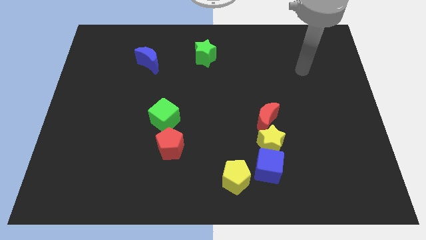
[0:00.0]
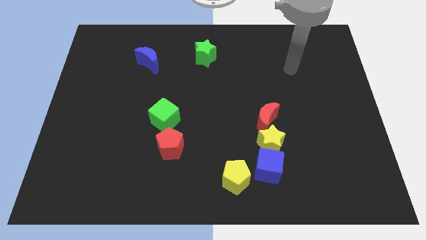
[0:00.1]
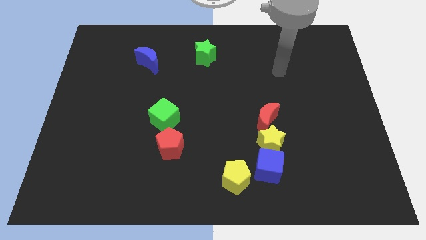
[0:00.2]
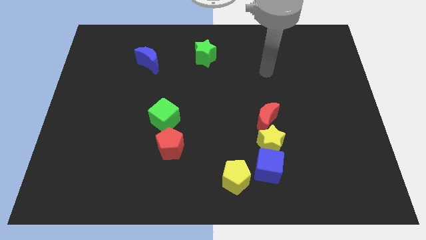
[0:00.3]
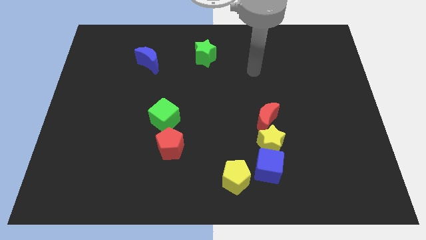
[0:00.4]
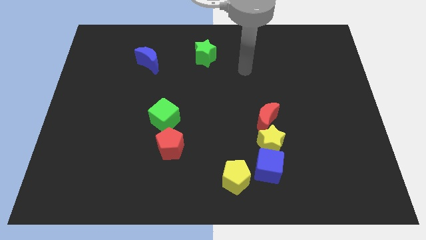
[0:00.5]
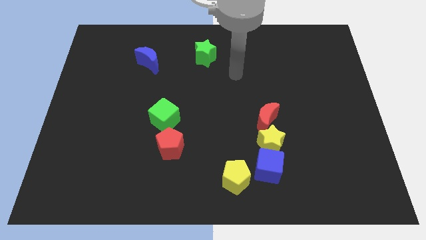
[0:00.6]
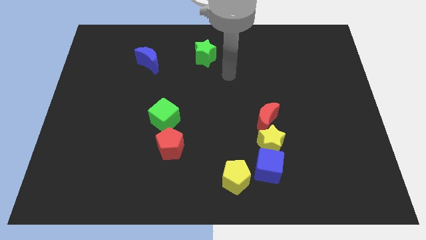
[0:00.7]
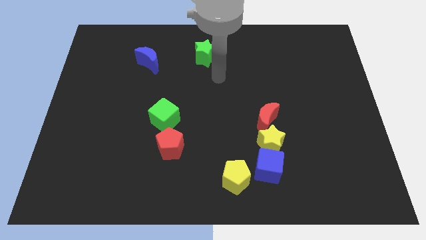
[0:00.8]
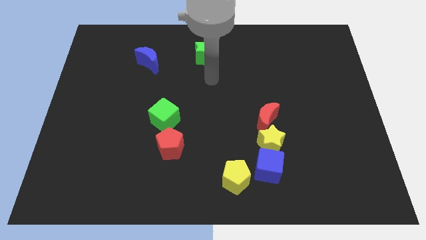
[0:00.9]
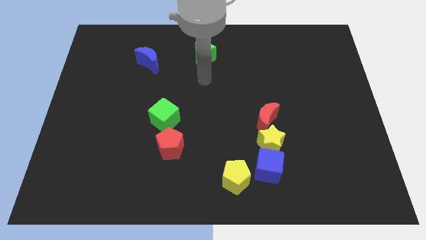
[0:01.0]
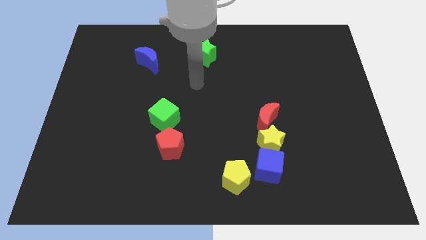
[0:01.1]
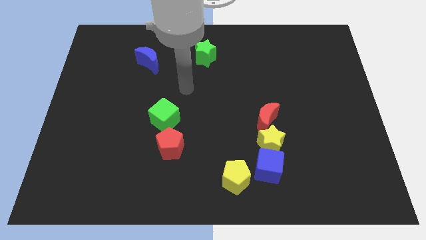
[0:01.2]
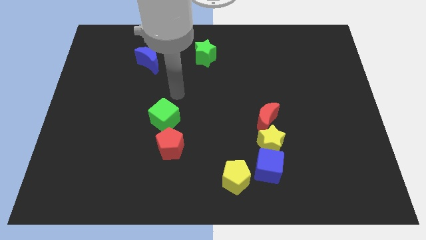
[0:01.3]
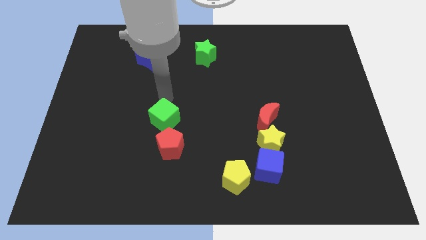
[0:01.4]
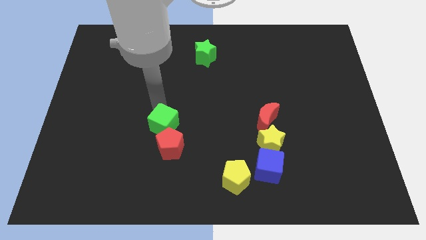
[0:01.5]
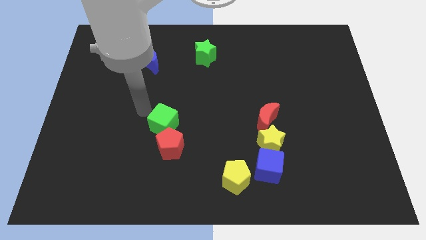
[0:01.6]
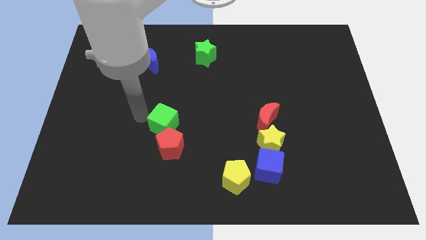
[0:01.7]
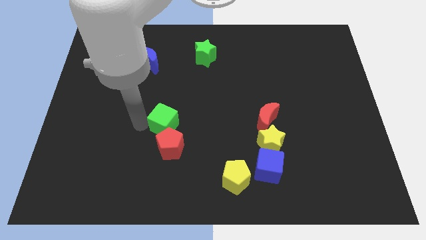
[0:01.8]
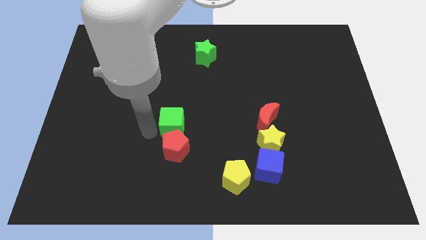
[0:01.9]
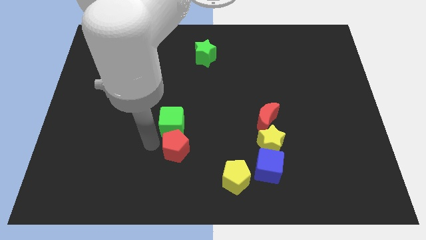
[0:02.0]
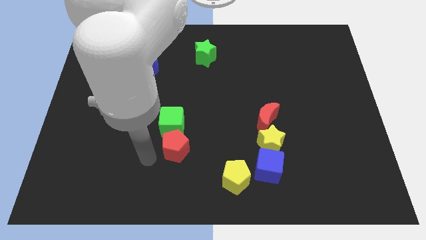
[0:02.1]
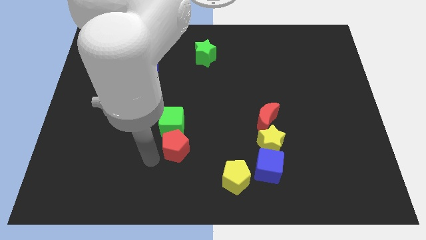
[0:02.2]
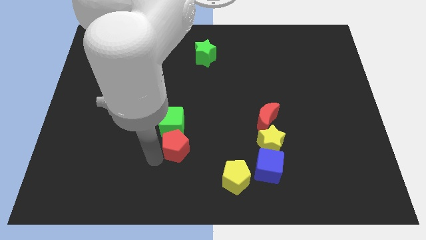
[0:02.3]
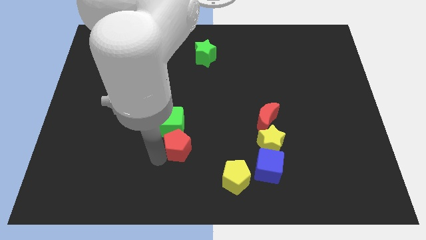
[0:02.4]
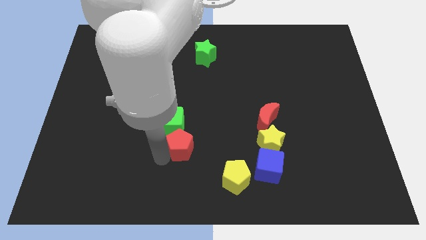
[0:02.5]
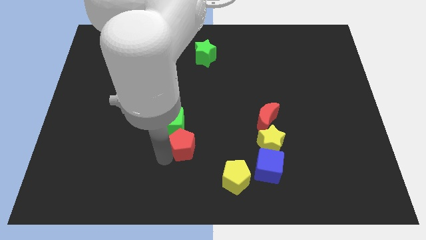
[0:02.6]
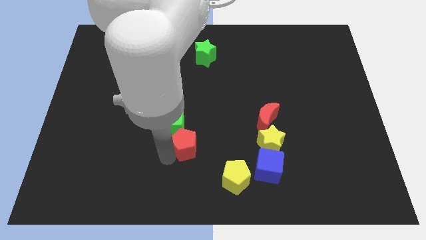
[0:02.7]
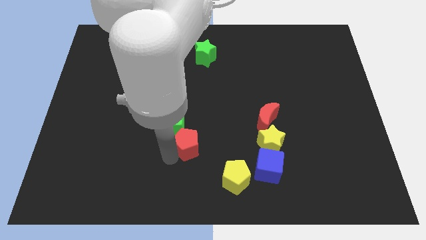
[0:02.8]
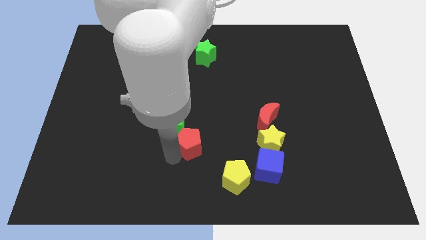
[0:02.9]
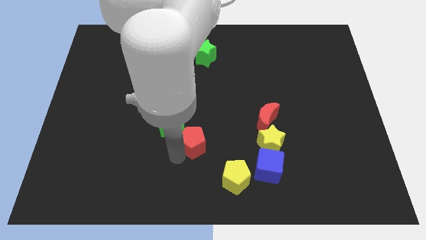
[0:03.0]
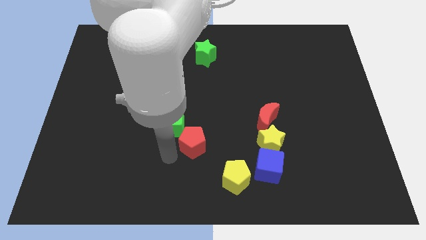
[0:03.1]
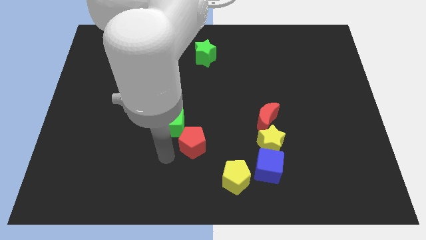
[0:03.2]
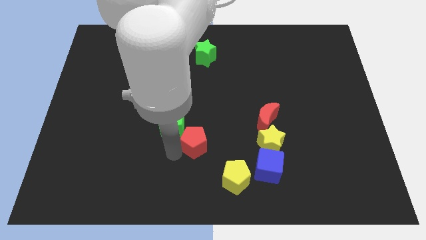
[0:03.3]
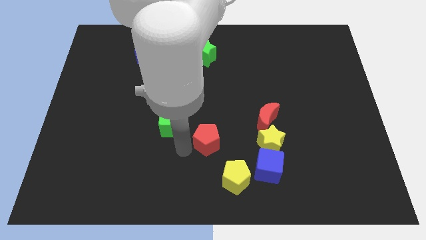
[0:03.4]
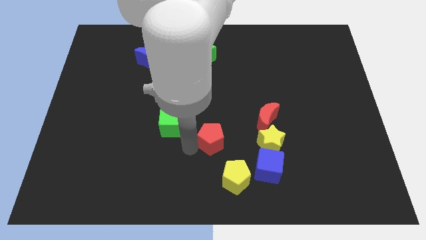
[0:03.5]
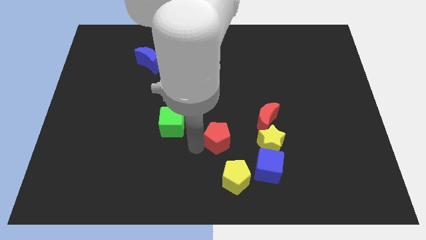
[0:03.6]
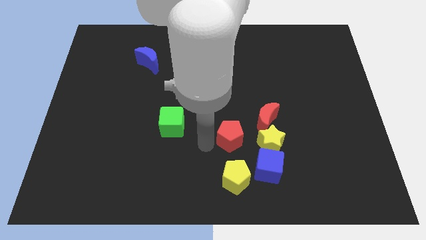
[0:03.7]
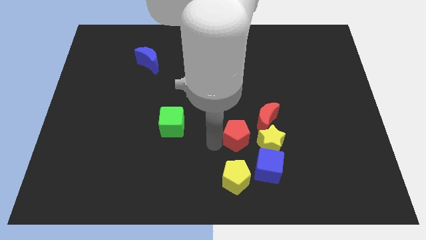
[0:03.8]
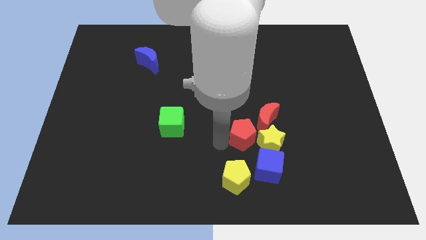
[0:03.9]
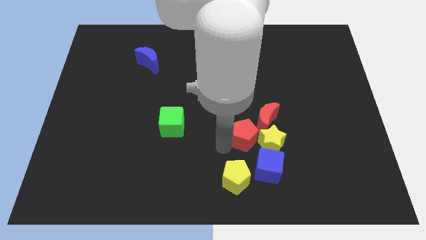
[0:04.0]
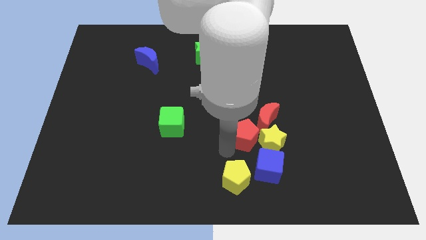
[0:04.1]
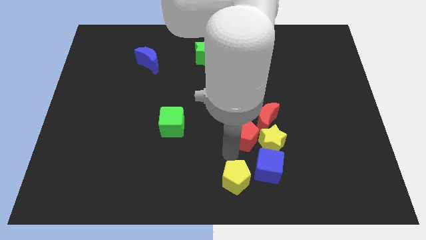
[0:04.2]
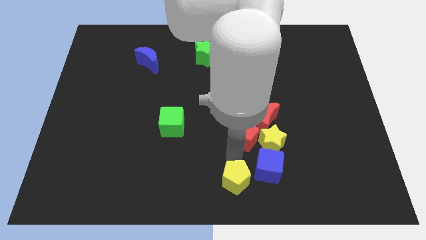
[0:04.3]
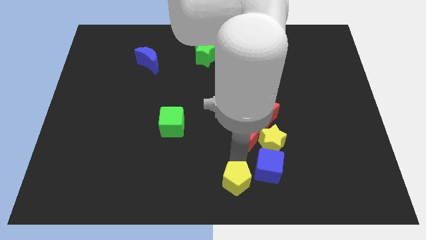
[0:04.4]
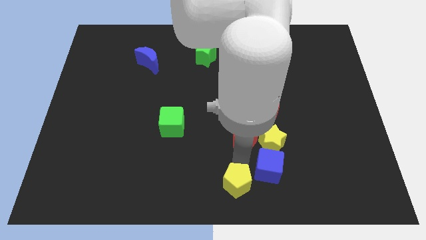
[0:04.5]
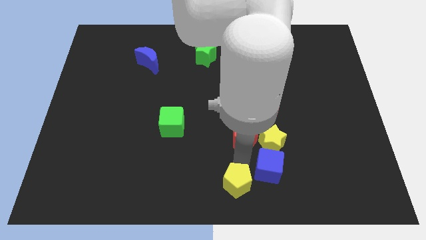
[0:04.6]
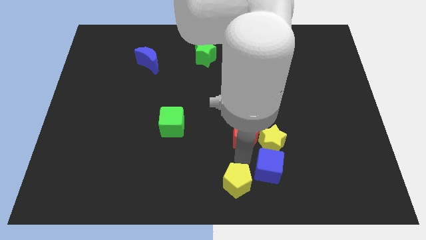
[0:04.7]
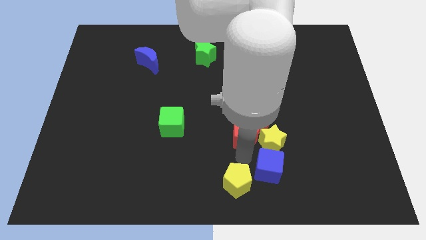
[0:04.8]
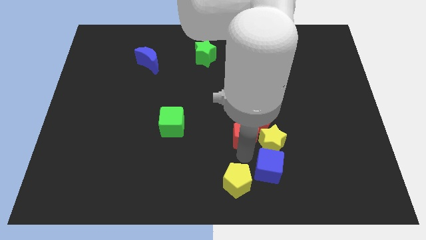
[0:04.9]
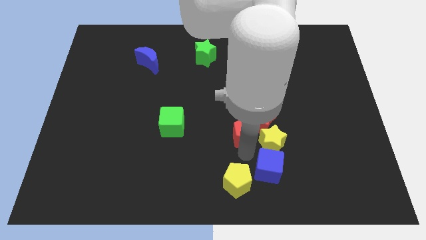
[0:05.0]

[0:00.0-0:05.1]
slide the red pentagon close to the red moon

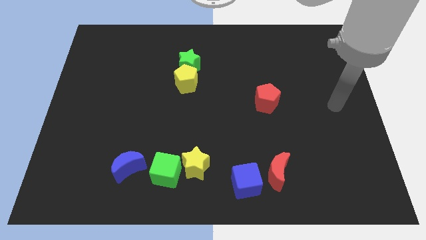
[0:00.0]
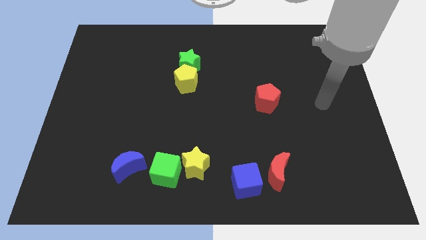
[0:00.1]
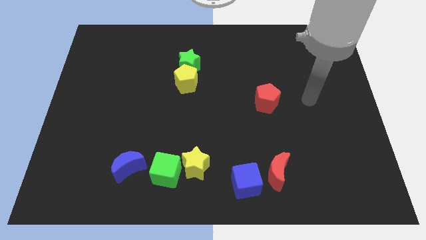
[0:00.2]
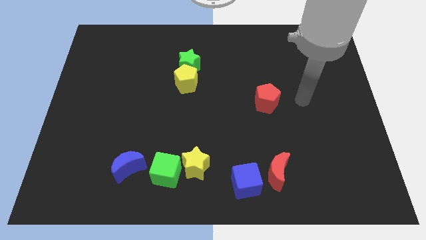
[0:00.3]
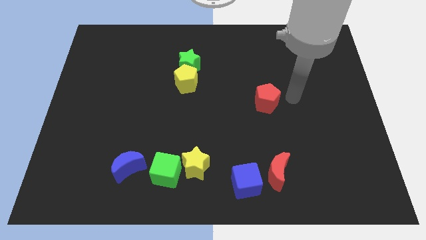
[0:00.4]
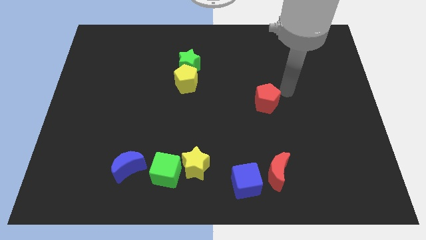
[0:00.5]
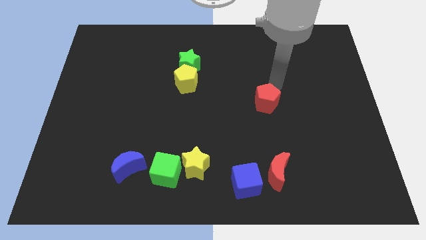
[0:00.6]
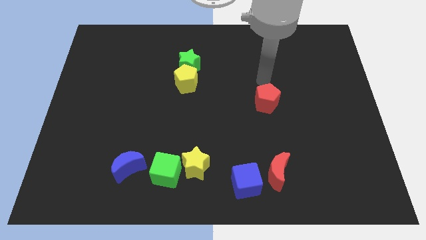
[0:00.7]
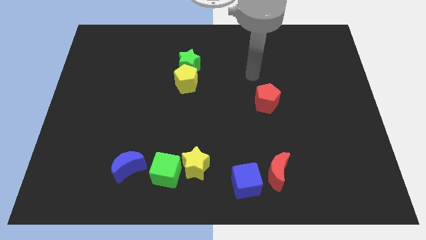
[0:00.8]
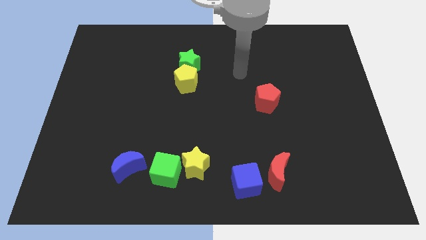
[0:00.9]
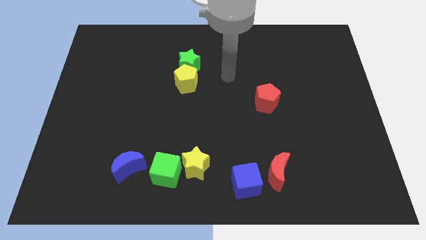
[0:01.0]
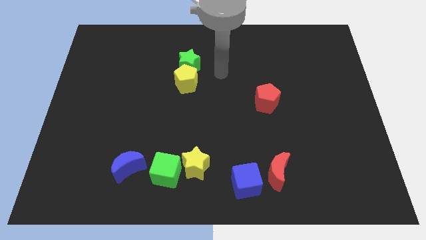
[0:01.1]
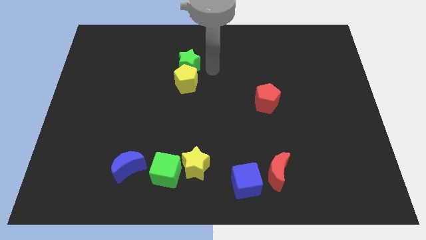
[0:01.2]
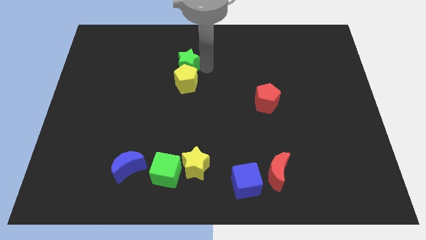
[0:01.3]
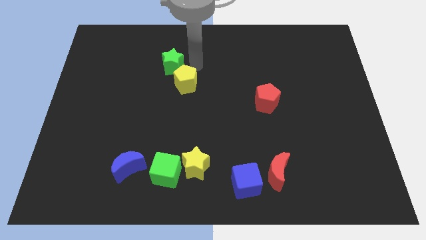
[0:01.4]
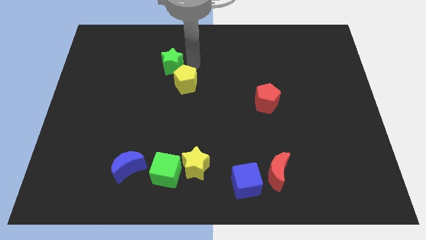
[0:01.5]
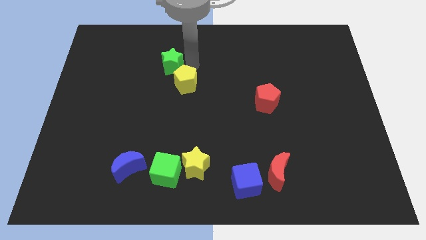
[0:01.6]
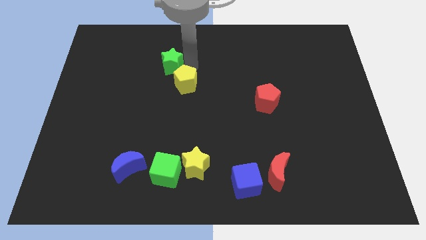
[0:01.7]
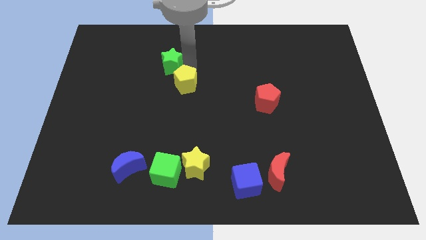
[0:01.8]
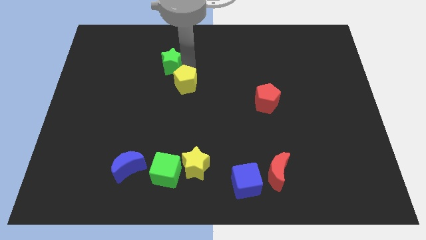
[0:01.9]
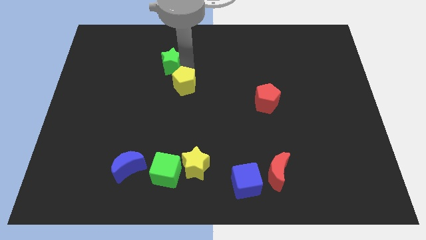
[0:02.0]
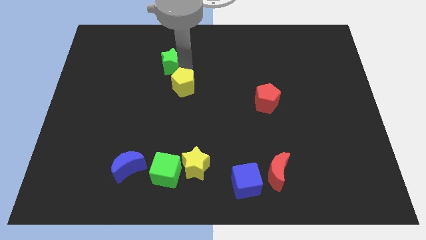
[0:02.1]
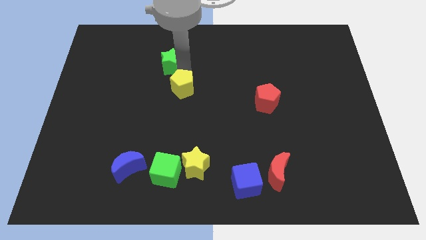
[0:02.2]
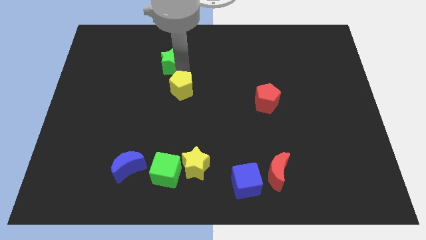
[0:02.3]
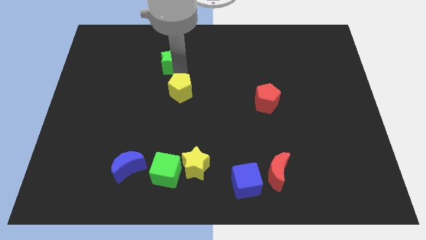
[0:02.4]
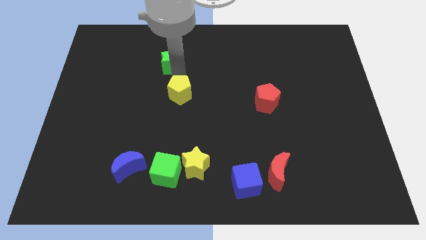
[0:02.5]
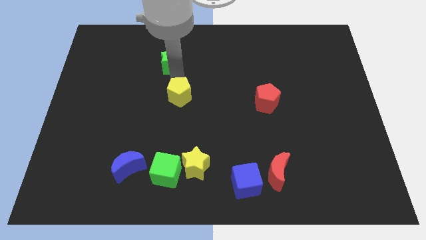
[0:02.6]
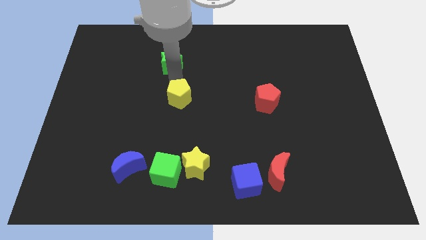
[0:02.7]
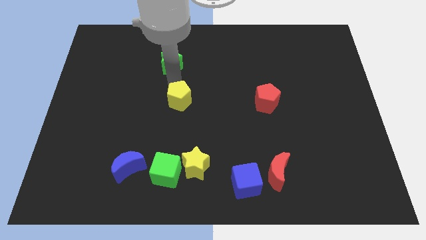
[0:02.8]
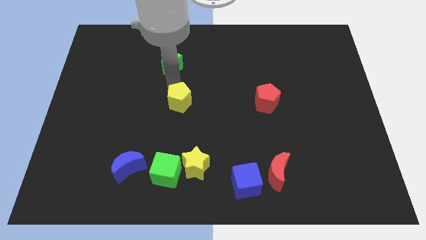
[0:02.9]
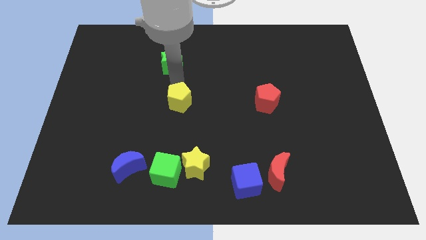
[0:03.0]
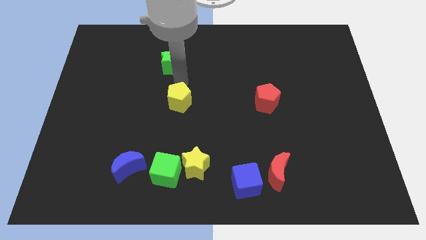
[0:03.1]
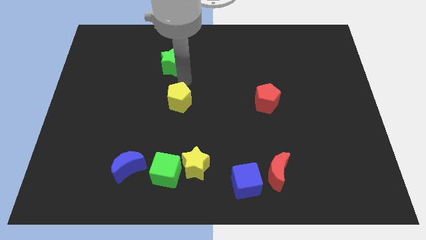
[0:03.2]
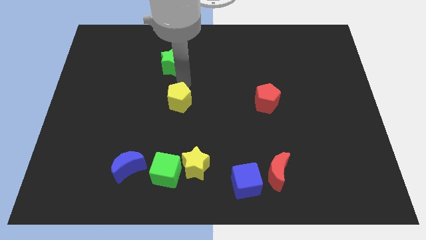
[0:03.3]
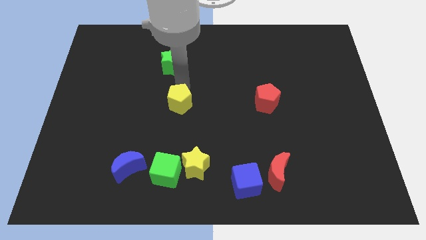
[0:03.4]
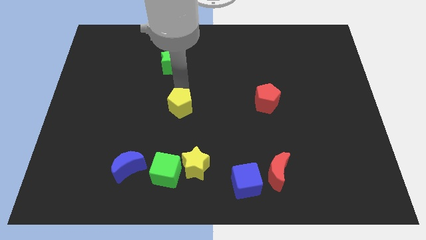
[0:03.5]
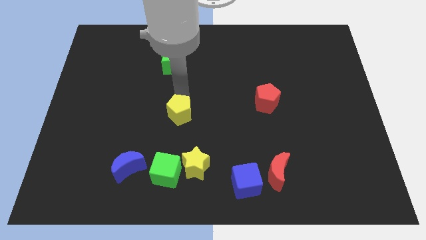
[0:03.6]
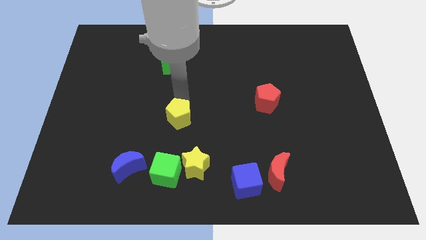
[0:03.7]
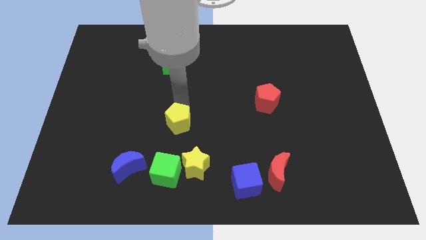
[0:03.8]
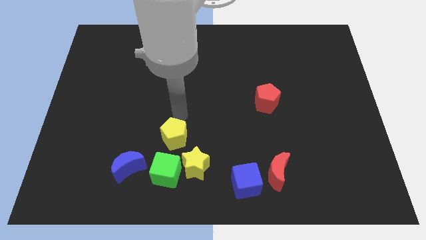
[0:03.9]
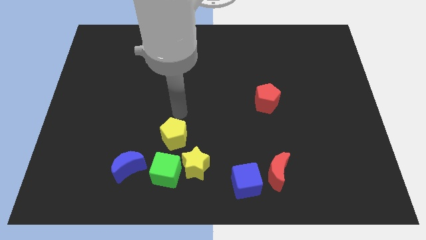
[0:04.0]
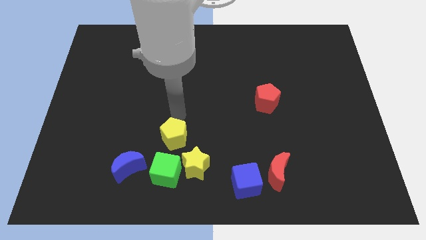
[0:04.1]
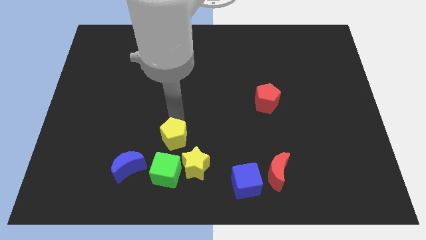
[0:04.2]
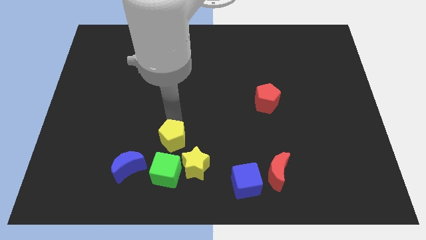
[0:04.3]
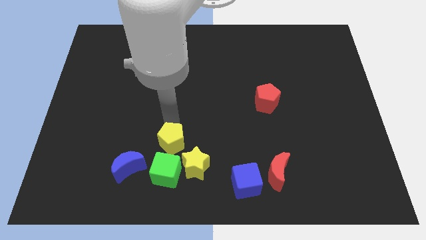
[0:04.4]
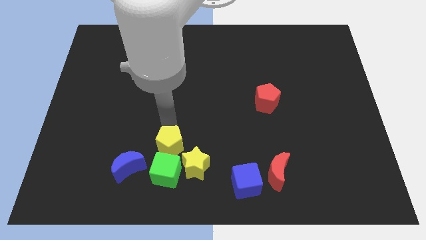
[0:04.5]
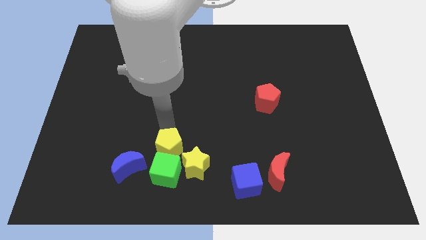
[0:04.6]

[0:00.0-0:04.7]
slide the yellow pentagon next to the green cube
